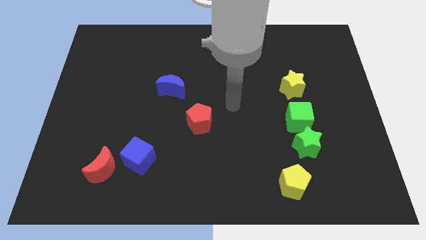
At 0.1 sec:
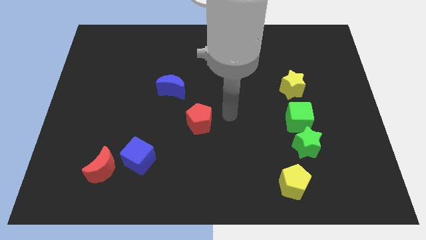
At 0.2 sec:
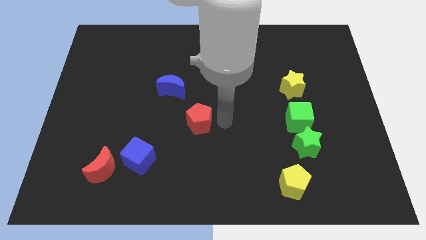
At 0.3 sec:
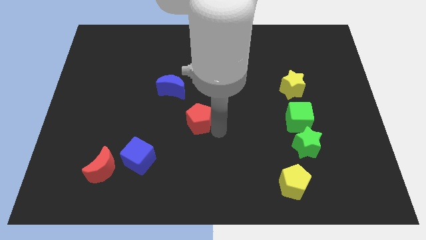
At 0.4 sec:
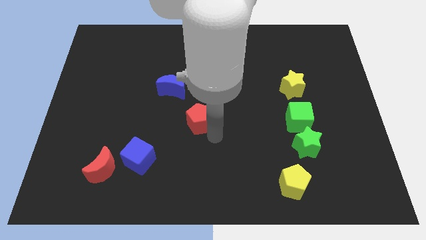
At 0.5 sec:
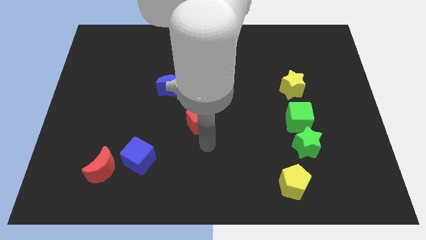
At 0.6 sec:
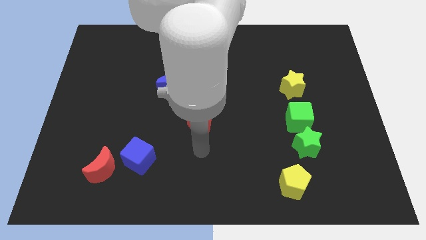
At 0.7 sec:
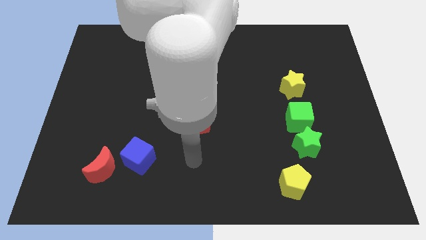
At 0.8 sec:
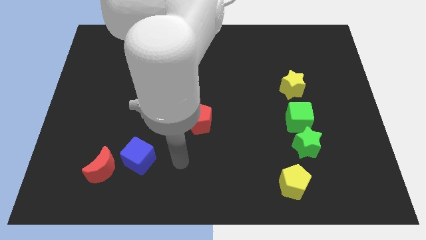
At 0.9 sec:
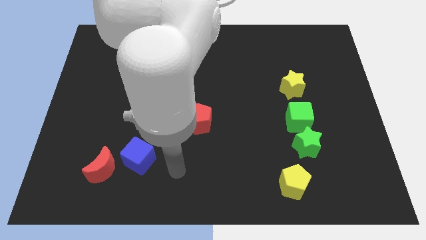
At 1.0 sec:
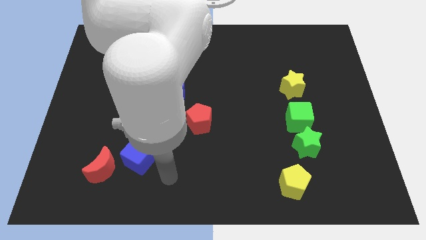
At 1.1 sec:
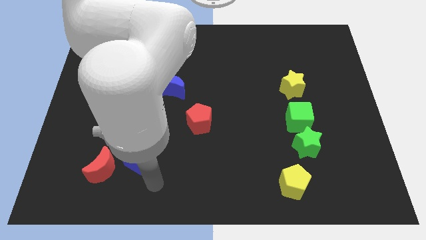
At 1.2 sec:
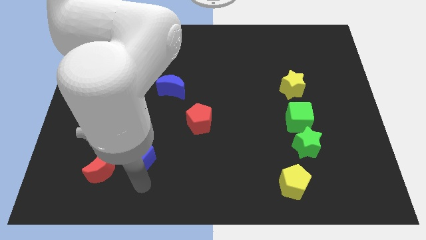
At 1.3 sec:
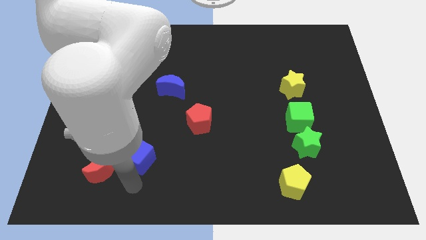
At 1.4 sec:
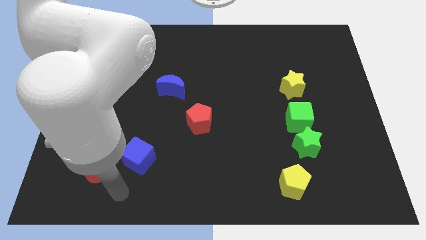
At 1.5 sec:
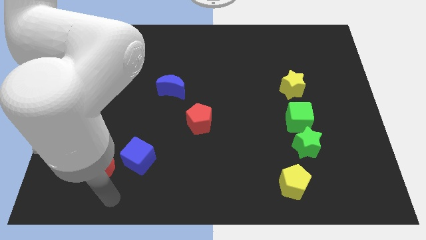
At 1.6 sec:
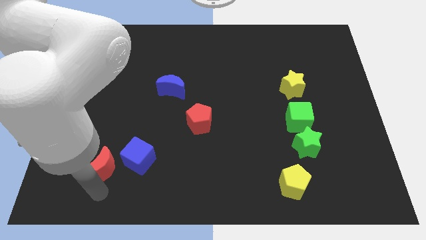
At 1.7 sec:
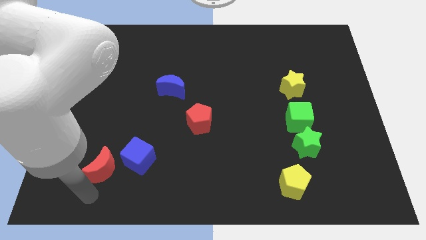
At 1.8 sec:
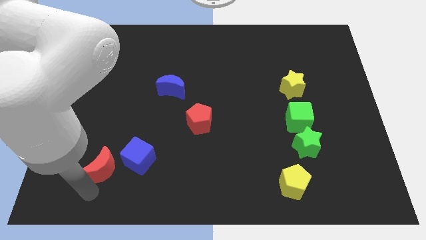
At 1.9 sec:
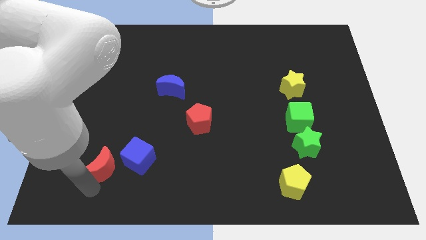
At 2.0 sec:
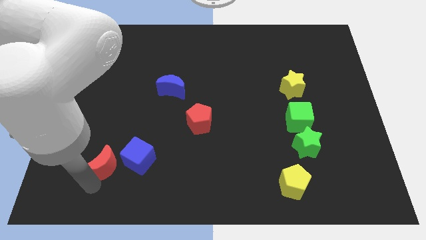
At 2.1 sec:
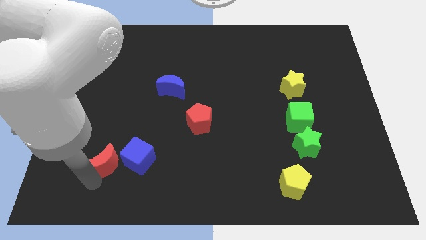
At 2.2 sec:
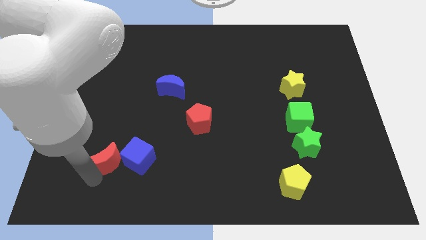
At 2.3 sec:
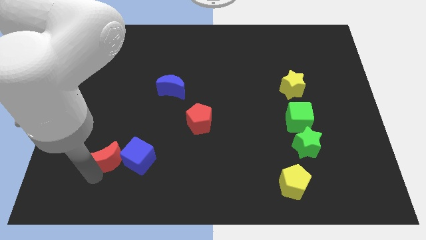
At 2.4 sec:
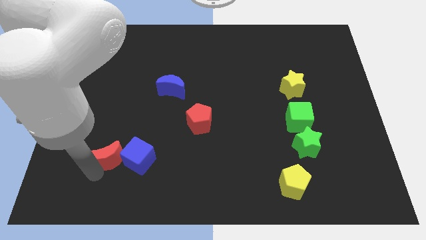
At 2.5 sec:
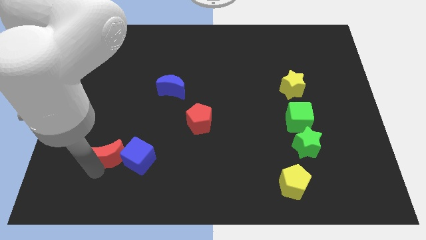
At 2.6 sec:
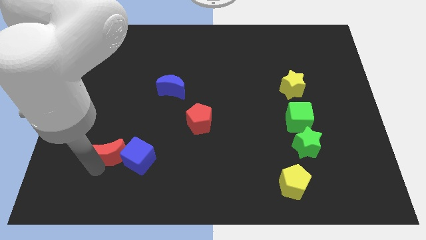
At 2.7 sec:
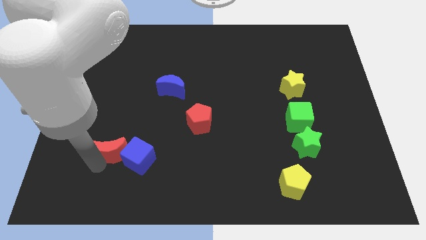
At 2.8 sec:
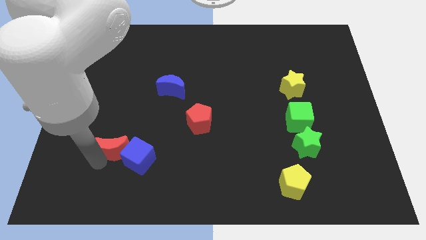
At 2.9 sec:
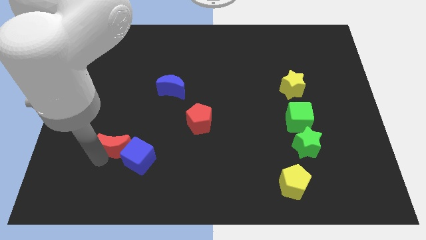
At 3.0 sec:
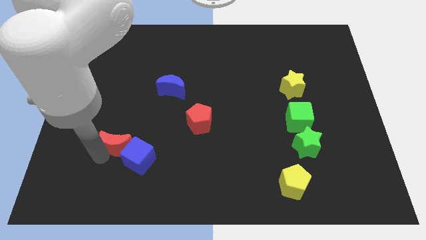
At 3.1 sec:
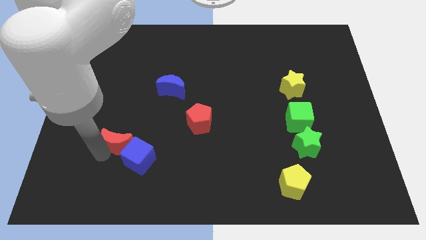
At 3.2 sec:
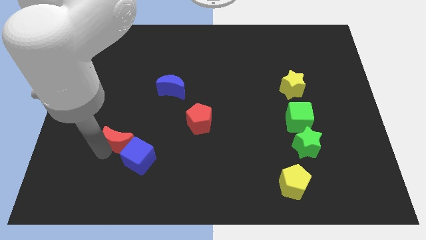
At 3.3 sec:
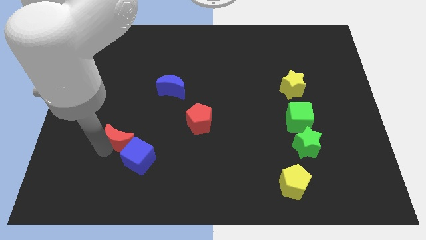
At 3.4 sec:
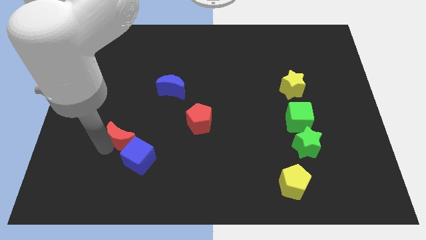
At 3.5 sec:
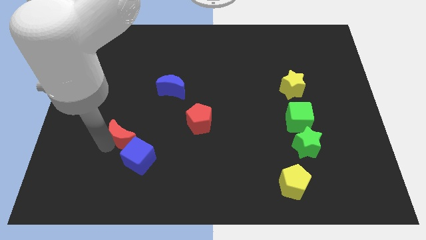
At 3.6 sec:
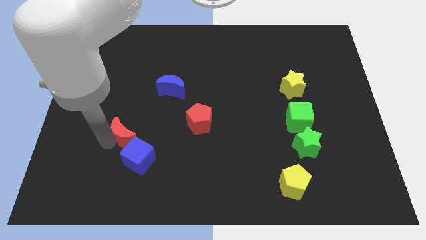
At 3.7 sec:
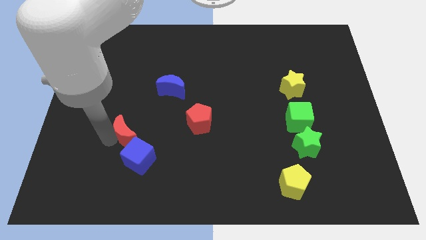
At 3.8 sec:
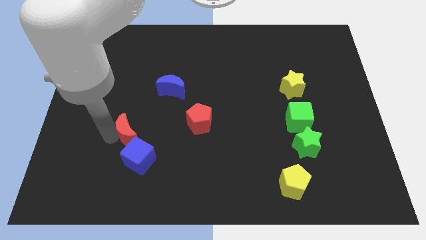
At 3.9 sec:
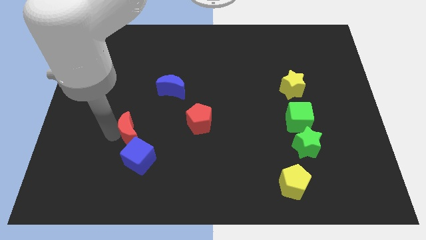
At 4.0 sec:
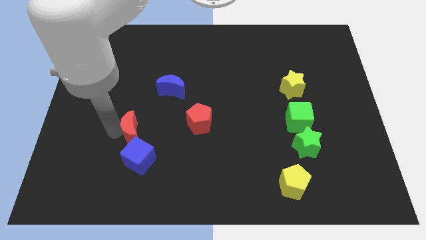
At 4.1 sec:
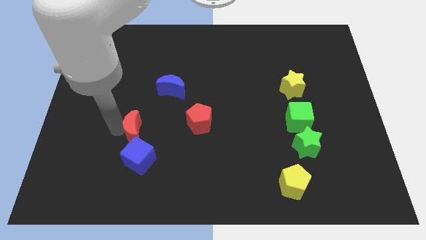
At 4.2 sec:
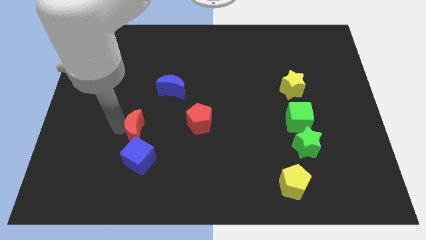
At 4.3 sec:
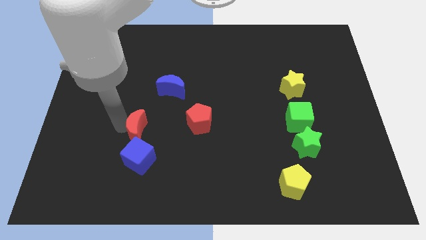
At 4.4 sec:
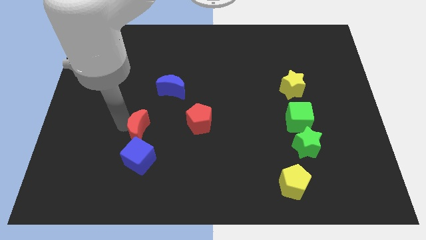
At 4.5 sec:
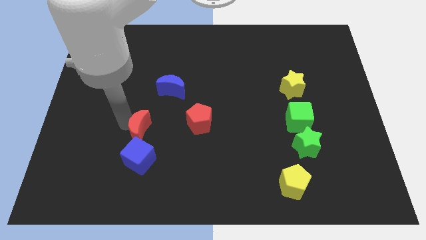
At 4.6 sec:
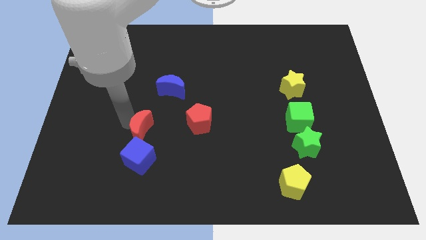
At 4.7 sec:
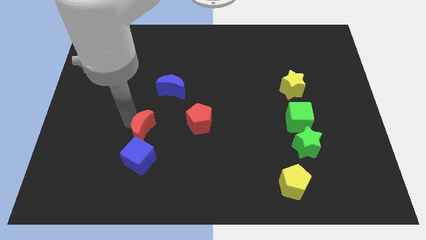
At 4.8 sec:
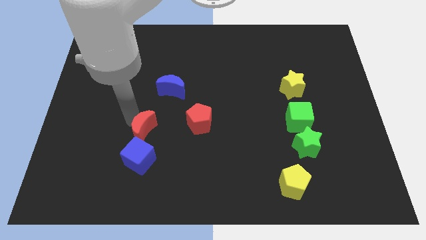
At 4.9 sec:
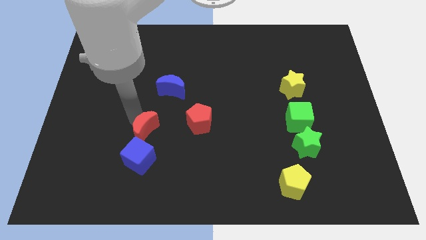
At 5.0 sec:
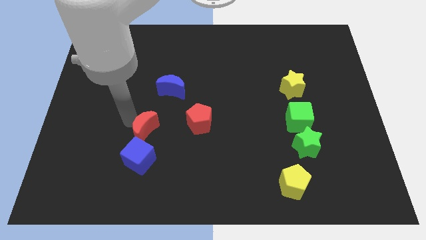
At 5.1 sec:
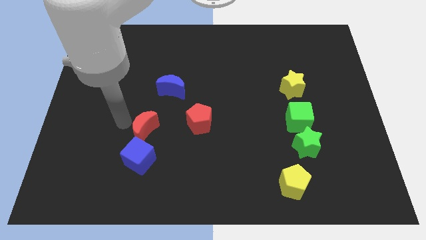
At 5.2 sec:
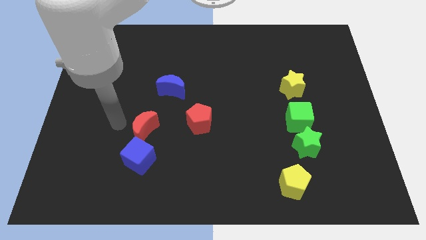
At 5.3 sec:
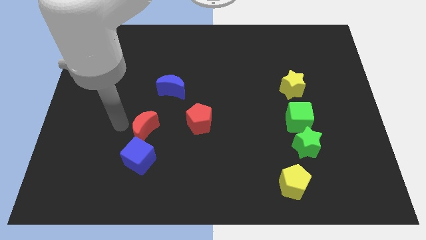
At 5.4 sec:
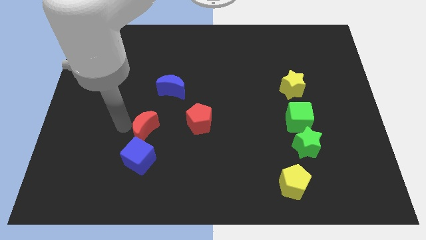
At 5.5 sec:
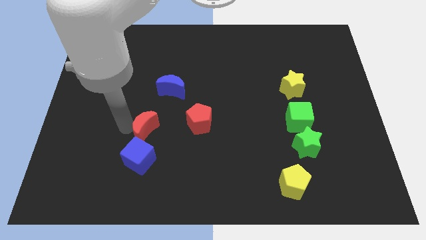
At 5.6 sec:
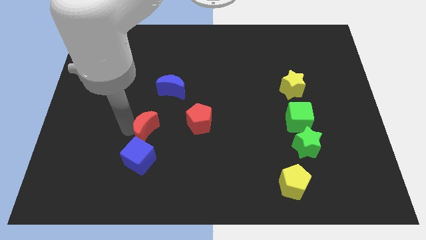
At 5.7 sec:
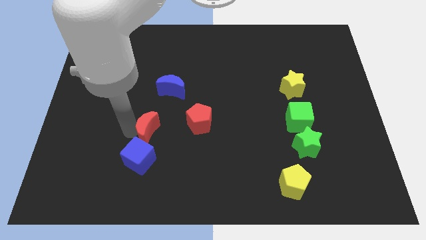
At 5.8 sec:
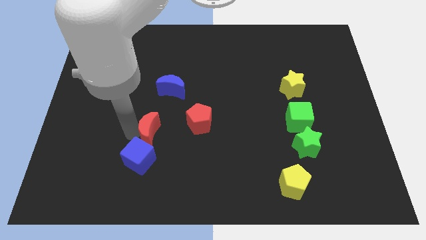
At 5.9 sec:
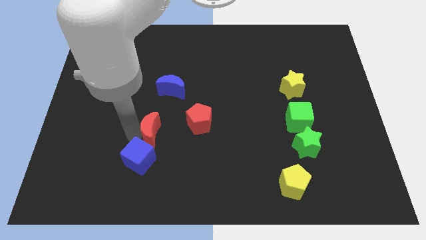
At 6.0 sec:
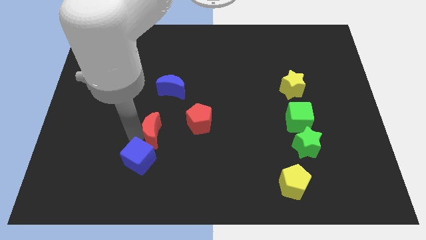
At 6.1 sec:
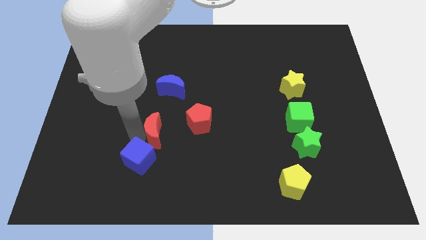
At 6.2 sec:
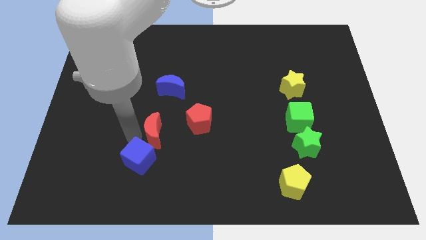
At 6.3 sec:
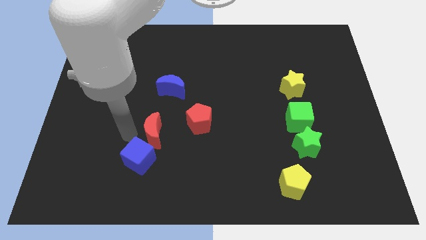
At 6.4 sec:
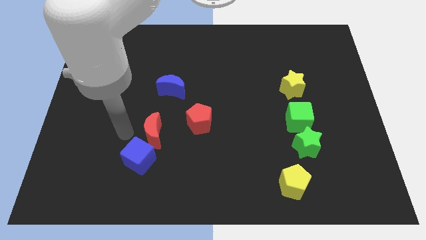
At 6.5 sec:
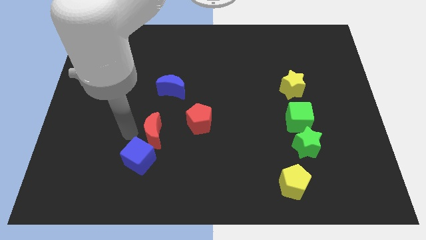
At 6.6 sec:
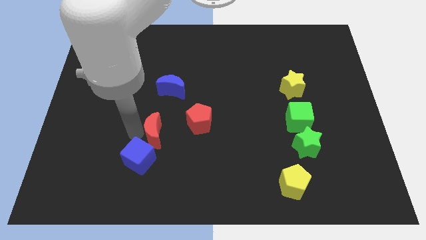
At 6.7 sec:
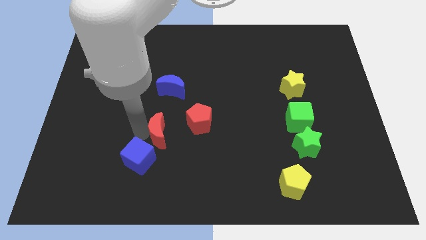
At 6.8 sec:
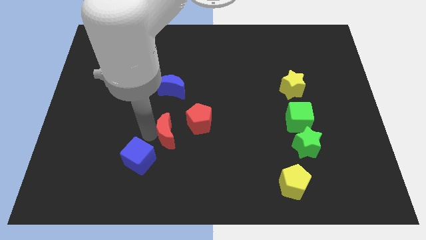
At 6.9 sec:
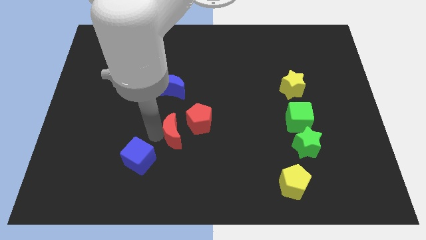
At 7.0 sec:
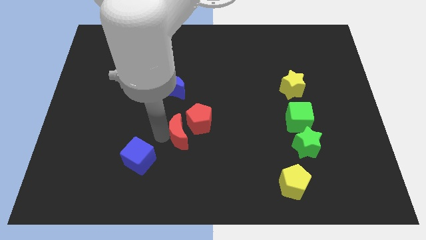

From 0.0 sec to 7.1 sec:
push the red moon to the red pentagon

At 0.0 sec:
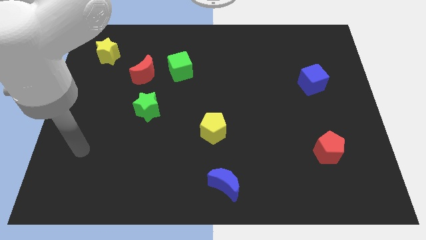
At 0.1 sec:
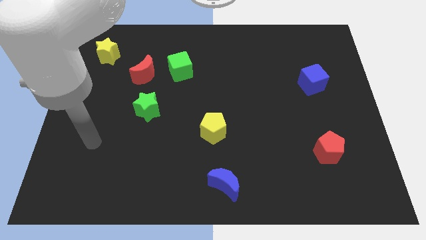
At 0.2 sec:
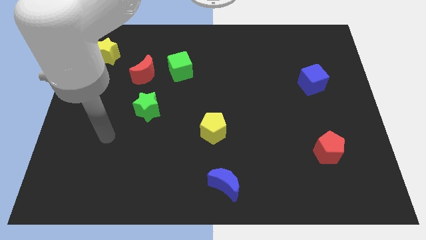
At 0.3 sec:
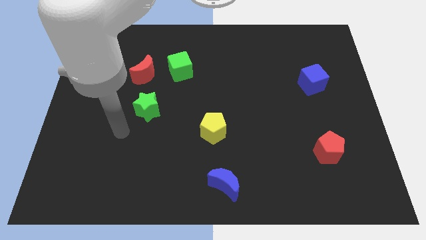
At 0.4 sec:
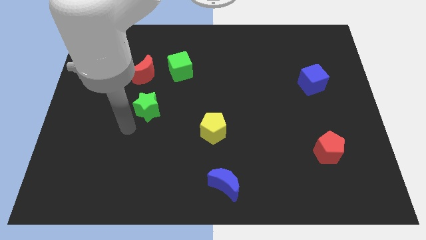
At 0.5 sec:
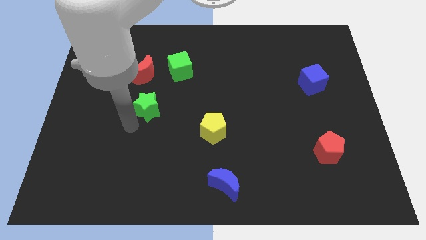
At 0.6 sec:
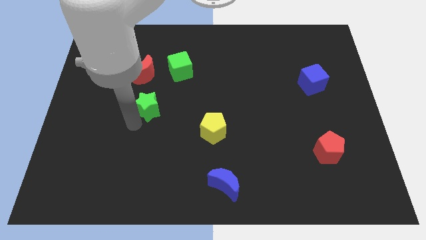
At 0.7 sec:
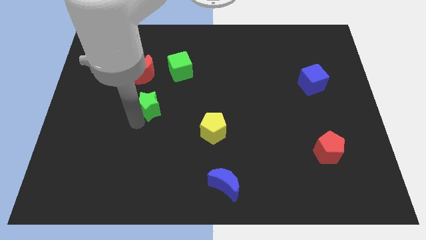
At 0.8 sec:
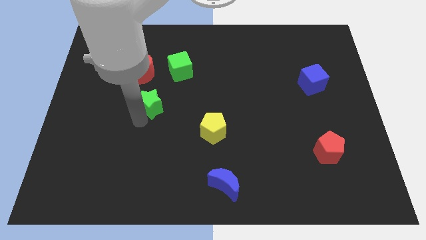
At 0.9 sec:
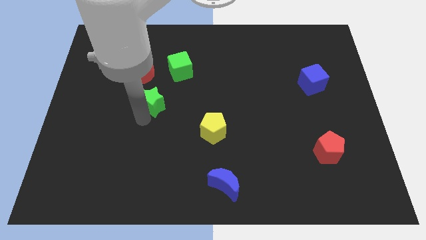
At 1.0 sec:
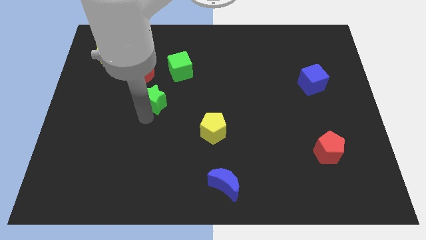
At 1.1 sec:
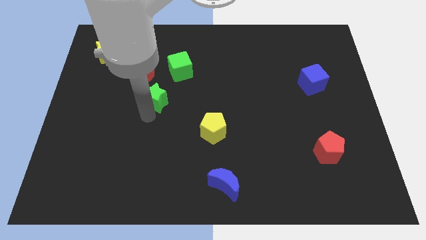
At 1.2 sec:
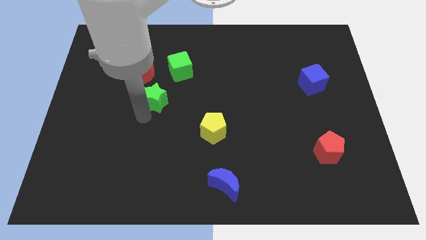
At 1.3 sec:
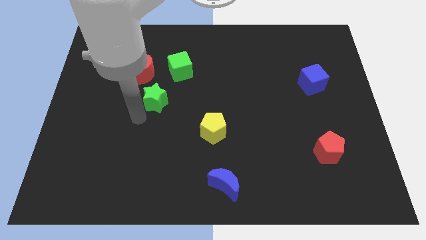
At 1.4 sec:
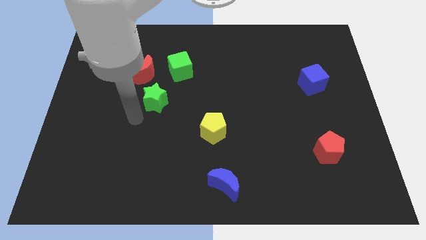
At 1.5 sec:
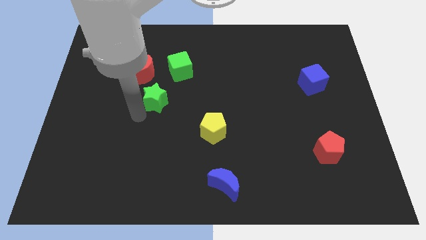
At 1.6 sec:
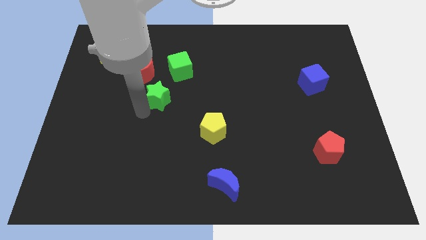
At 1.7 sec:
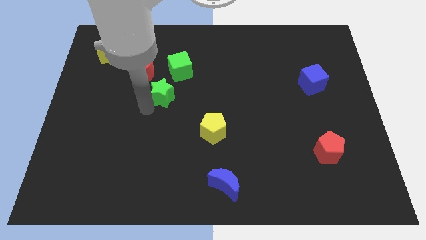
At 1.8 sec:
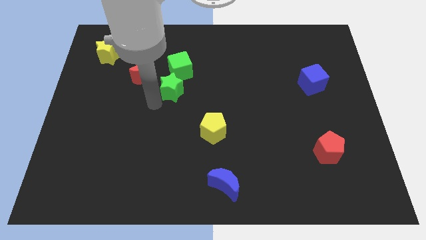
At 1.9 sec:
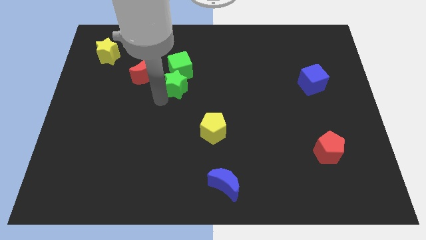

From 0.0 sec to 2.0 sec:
push the green star towards the green cube
